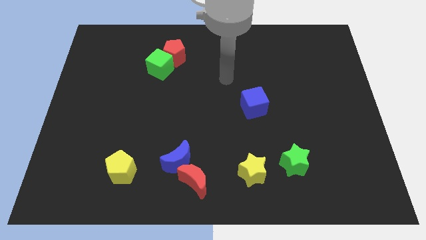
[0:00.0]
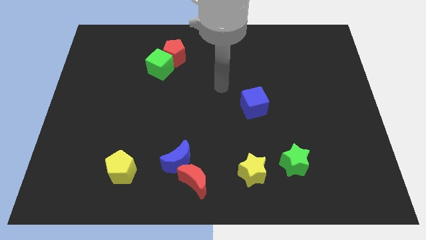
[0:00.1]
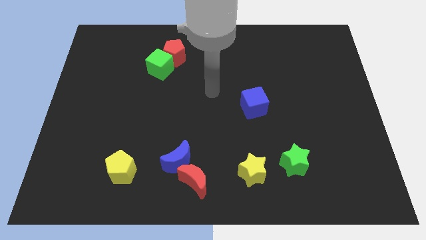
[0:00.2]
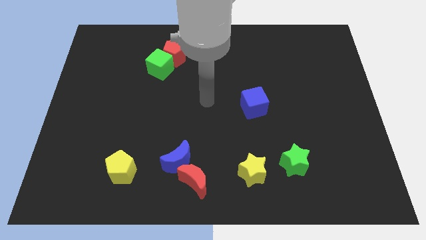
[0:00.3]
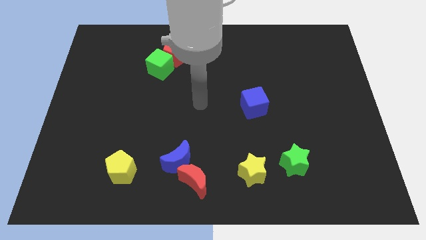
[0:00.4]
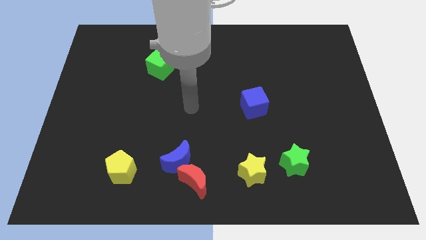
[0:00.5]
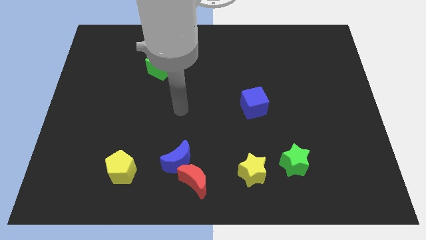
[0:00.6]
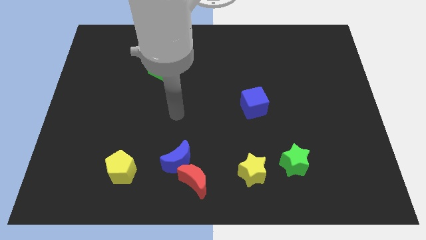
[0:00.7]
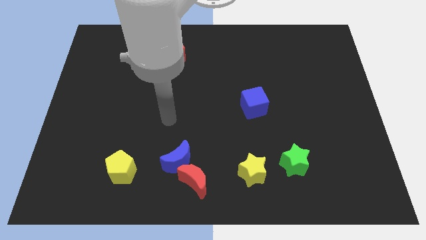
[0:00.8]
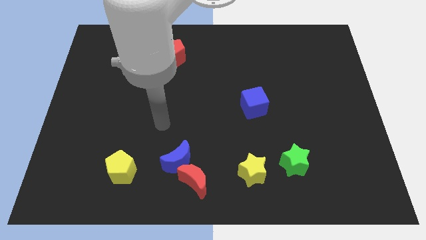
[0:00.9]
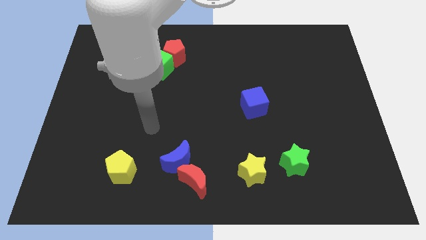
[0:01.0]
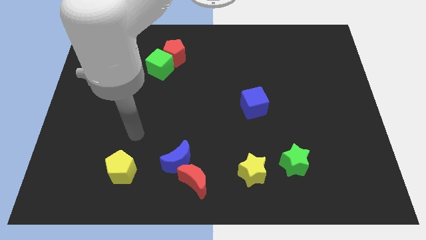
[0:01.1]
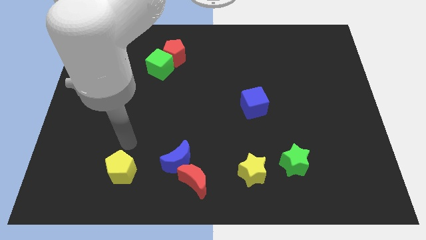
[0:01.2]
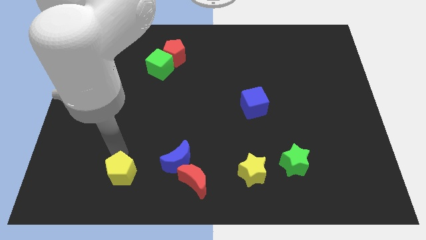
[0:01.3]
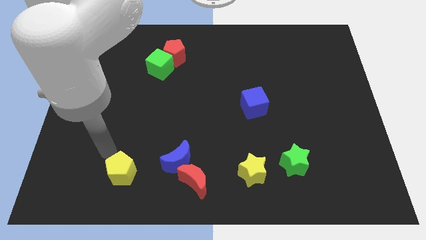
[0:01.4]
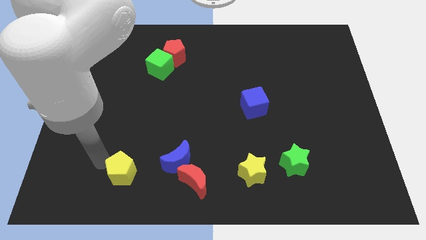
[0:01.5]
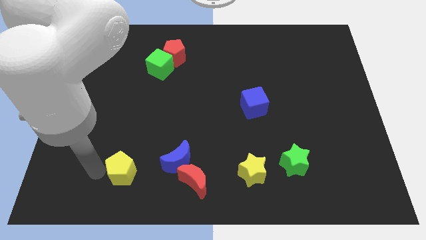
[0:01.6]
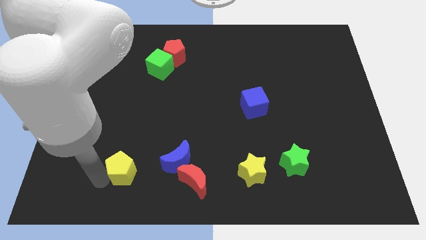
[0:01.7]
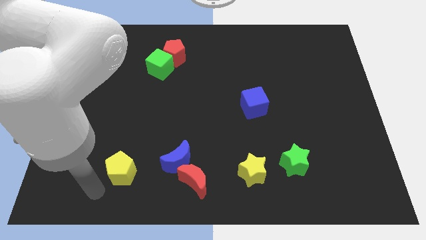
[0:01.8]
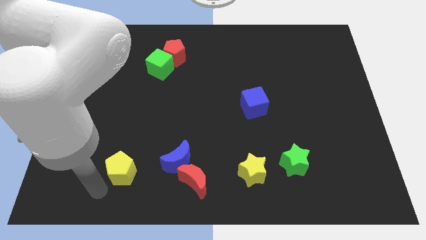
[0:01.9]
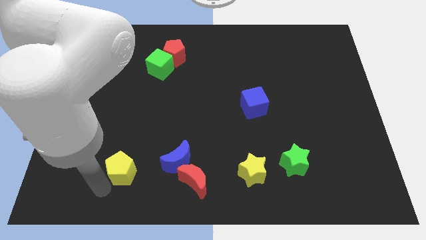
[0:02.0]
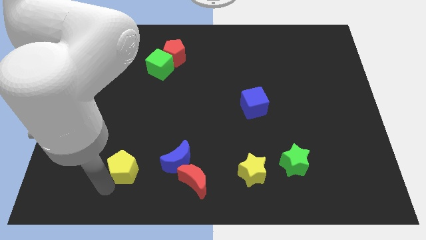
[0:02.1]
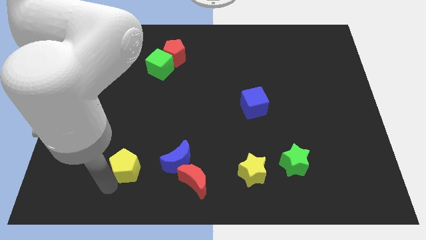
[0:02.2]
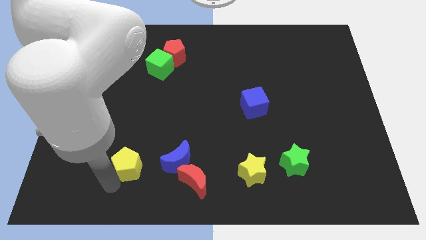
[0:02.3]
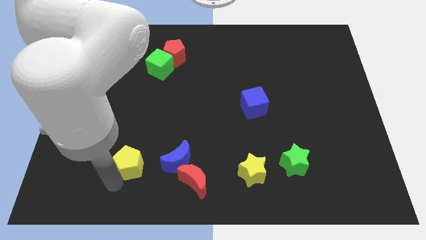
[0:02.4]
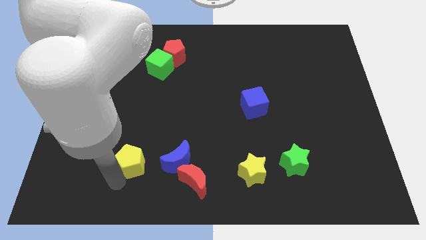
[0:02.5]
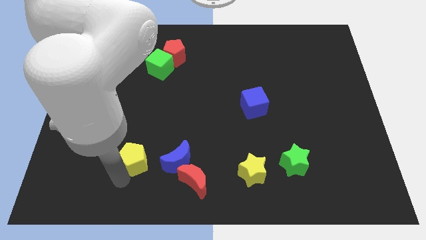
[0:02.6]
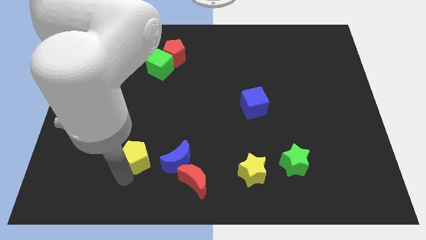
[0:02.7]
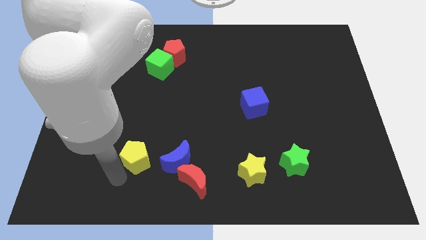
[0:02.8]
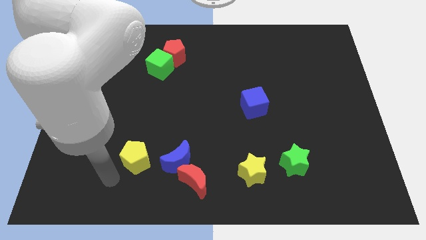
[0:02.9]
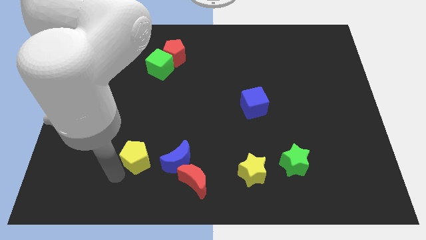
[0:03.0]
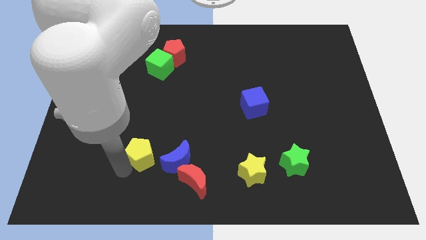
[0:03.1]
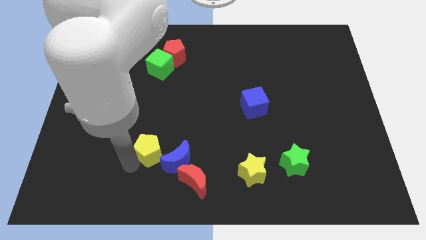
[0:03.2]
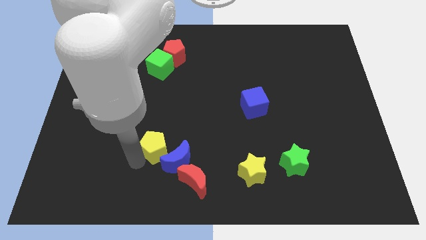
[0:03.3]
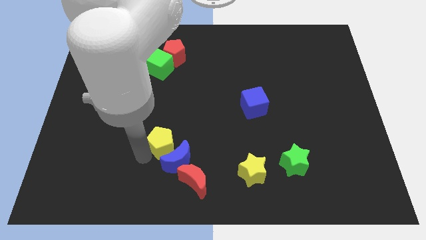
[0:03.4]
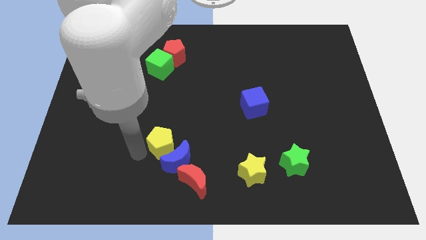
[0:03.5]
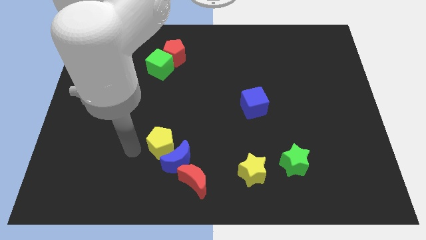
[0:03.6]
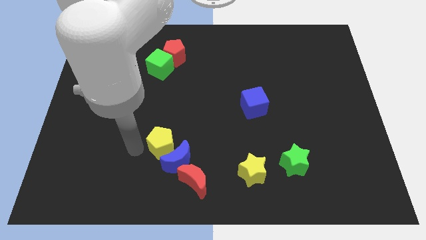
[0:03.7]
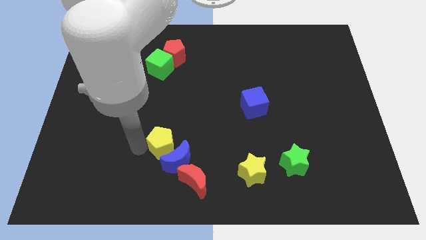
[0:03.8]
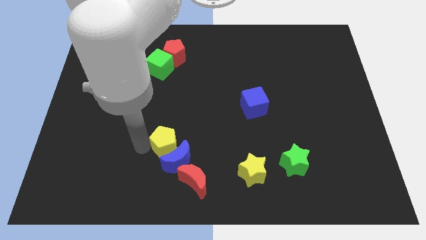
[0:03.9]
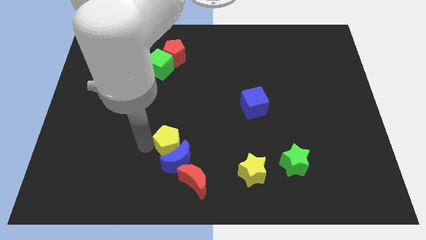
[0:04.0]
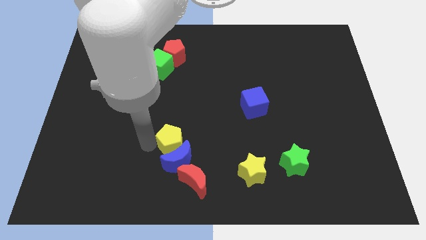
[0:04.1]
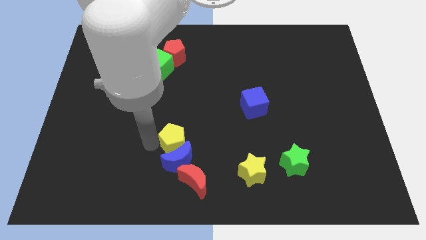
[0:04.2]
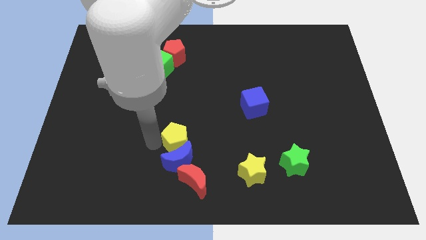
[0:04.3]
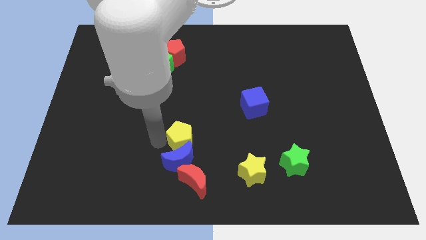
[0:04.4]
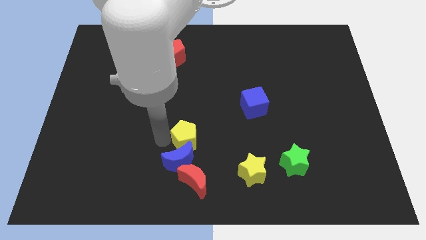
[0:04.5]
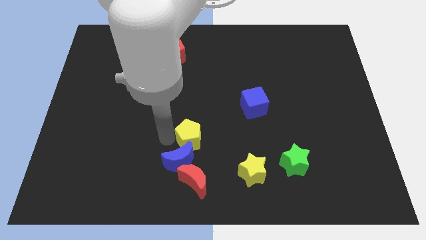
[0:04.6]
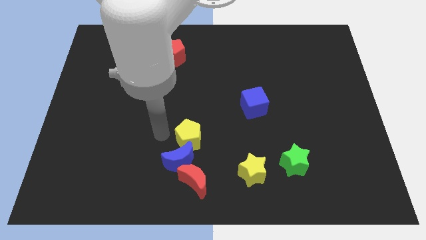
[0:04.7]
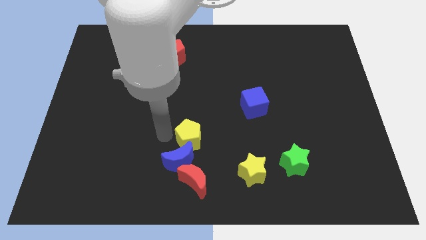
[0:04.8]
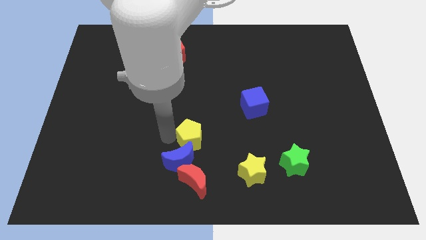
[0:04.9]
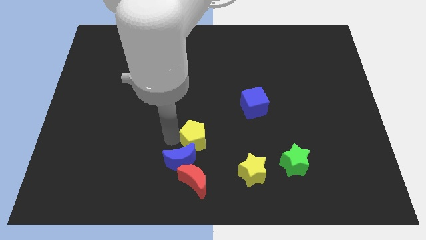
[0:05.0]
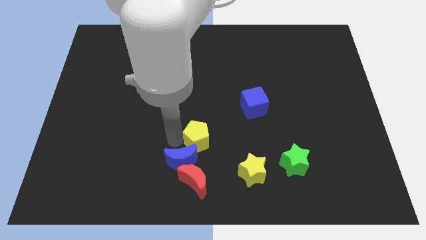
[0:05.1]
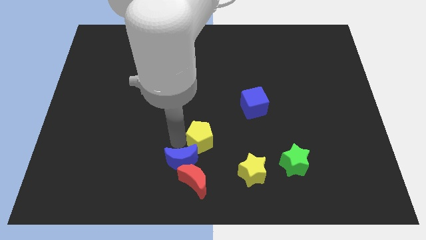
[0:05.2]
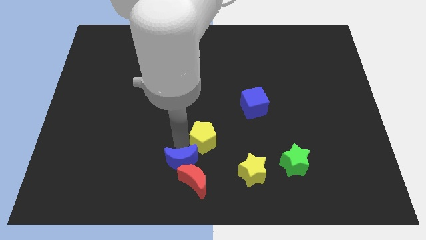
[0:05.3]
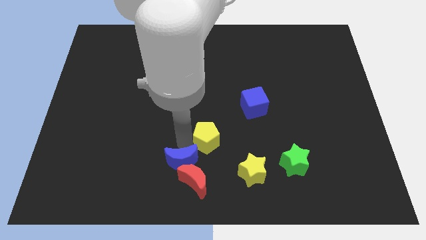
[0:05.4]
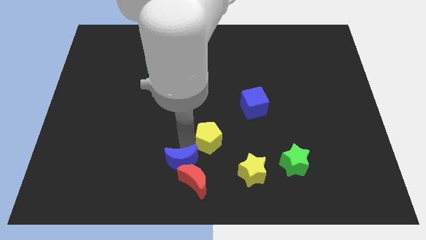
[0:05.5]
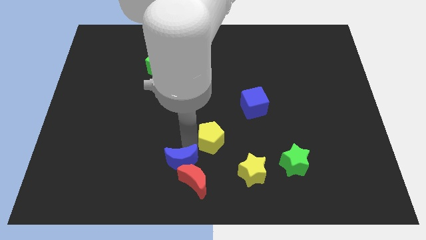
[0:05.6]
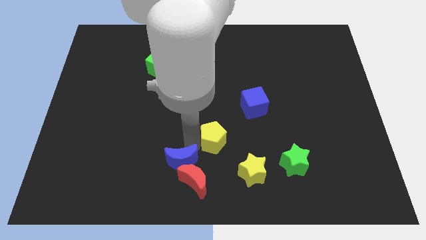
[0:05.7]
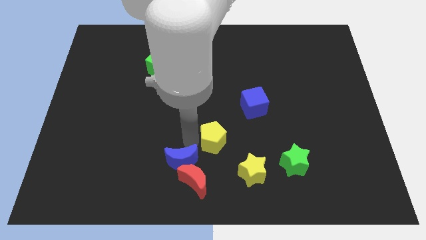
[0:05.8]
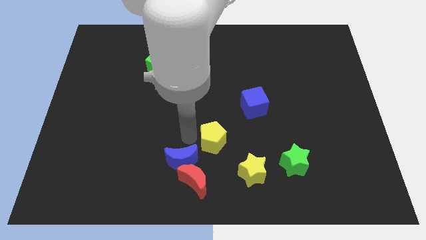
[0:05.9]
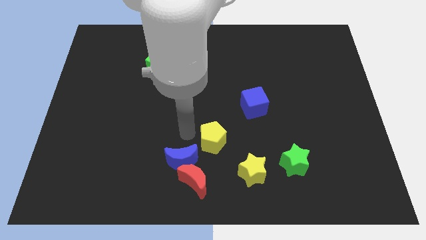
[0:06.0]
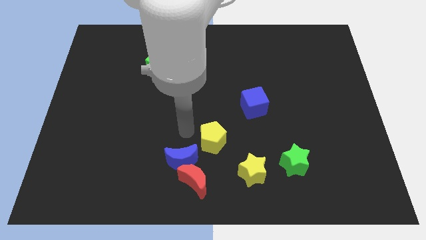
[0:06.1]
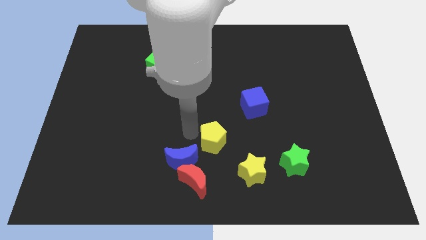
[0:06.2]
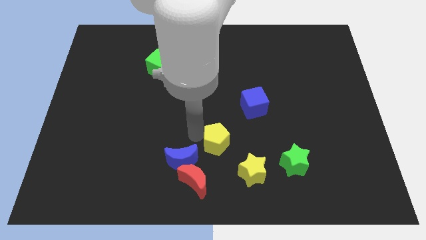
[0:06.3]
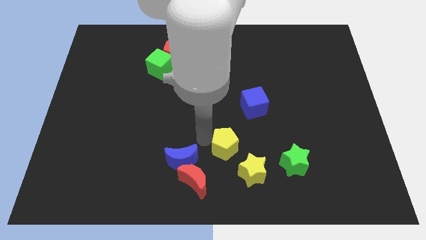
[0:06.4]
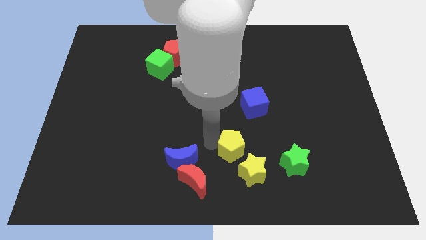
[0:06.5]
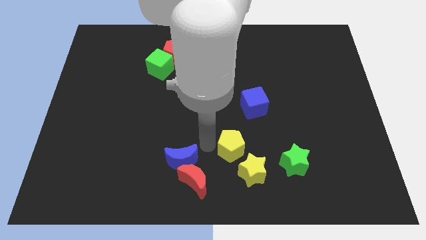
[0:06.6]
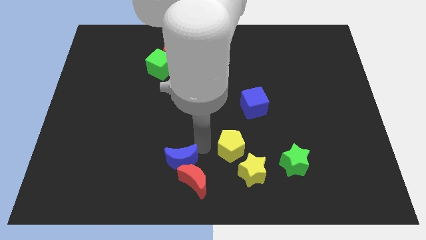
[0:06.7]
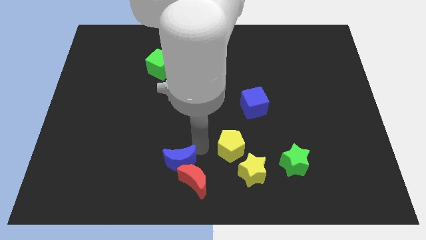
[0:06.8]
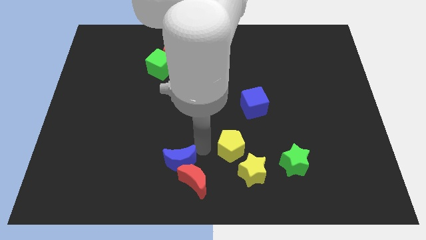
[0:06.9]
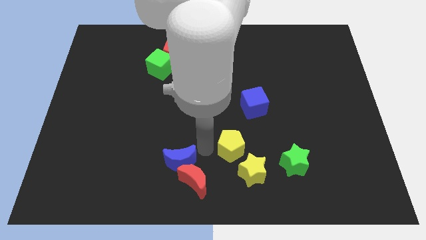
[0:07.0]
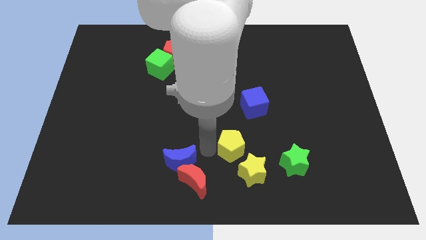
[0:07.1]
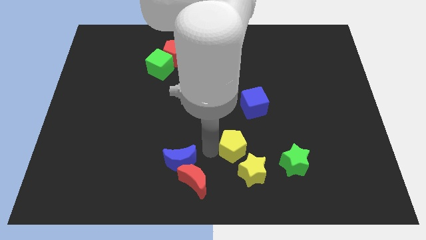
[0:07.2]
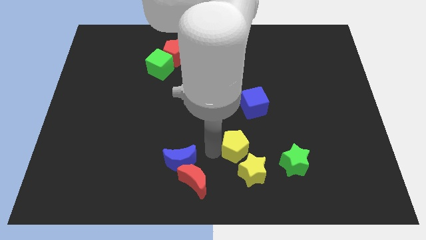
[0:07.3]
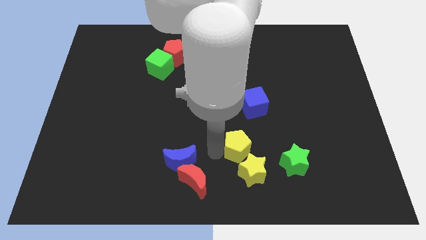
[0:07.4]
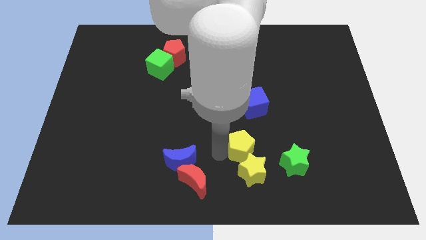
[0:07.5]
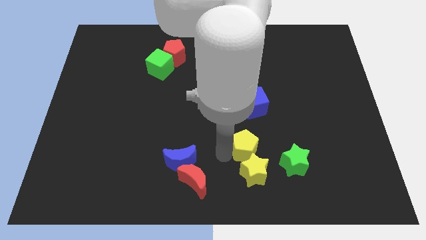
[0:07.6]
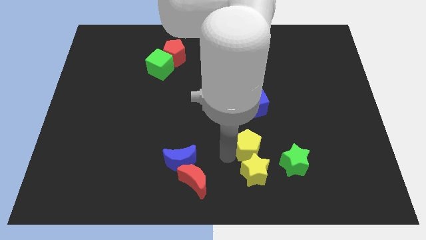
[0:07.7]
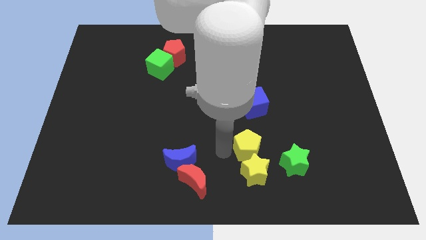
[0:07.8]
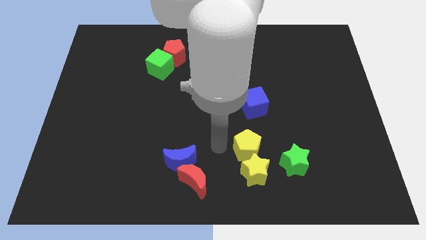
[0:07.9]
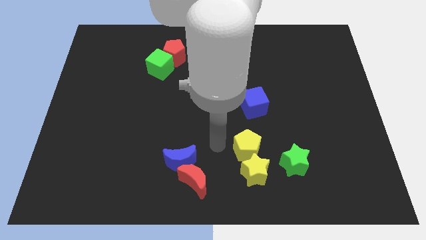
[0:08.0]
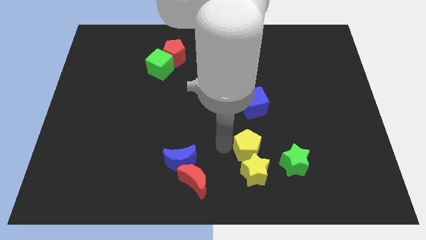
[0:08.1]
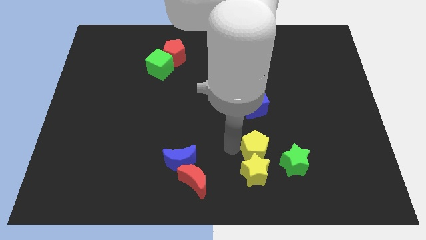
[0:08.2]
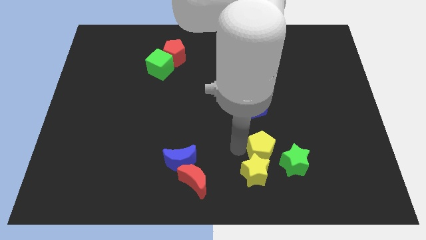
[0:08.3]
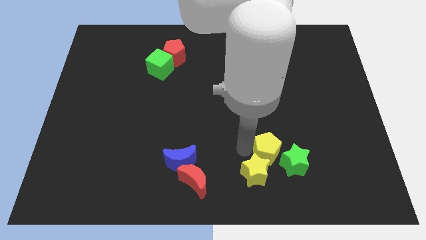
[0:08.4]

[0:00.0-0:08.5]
put the yellow pentagon towards the green star
